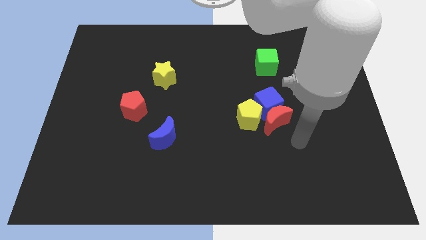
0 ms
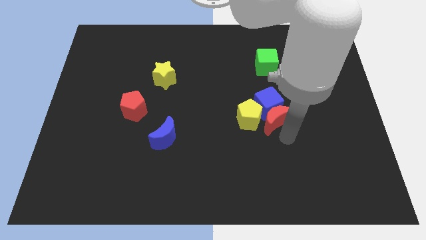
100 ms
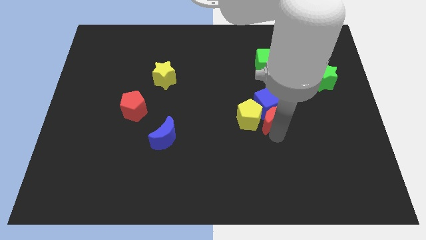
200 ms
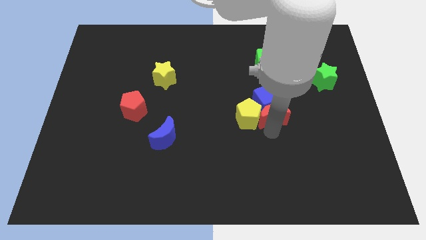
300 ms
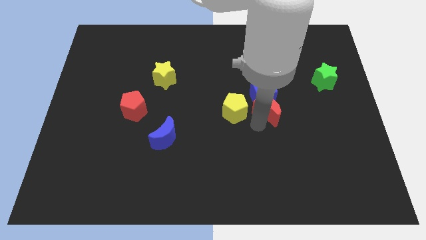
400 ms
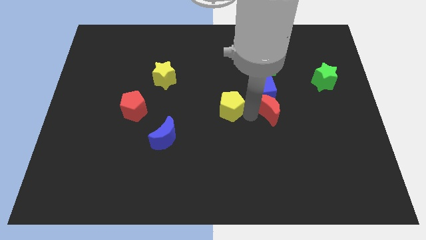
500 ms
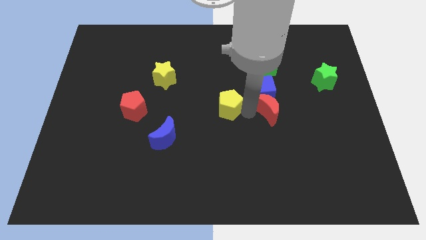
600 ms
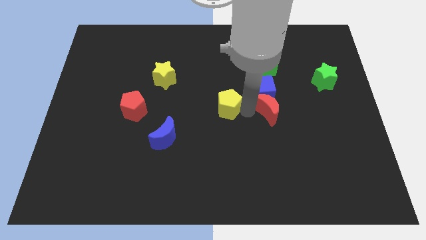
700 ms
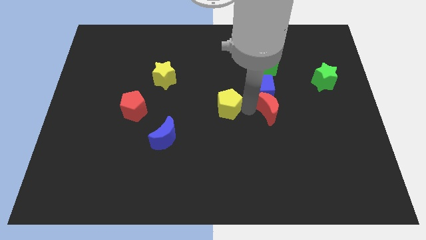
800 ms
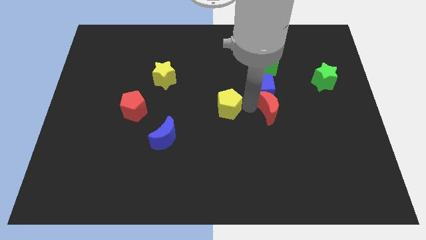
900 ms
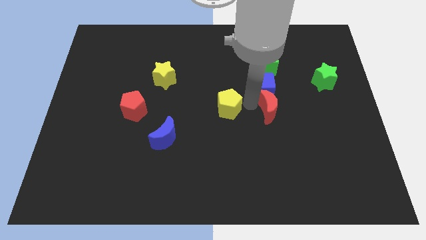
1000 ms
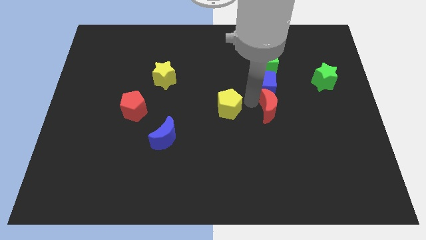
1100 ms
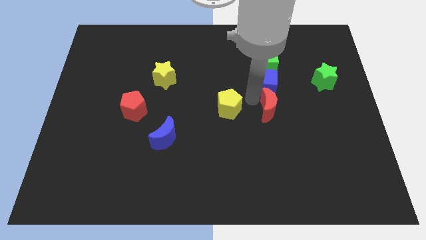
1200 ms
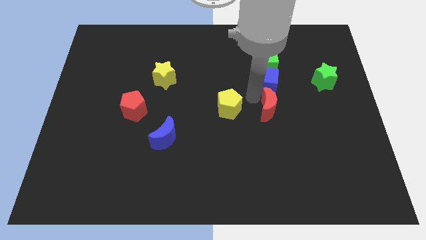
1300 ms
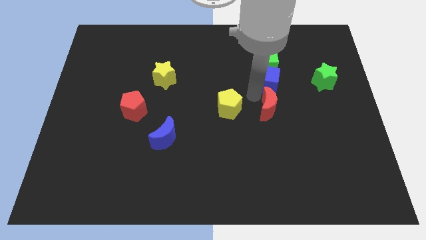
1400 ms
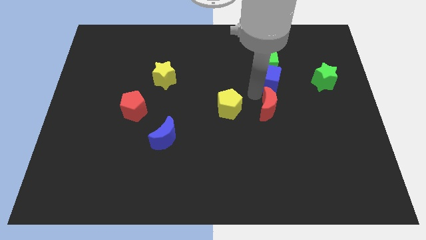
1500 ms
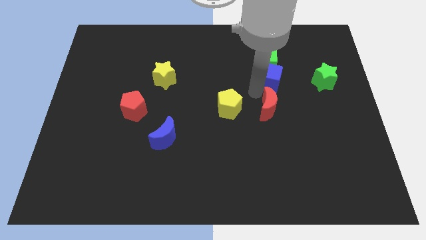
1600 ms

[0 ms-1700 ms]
pull the blue cube apart from the red moon and yellow pentagon

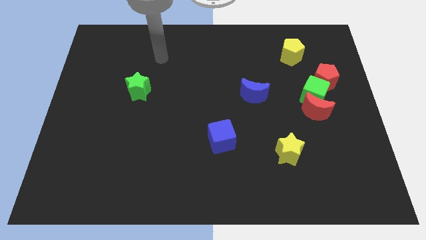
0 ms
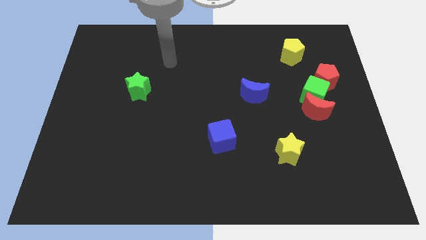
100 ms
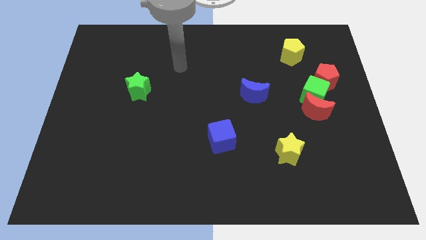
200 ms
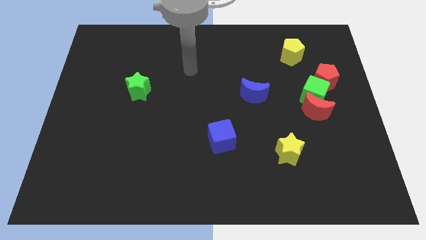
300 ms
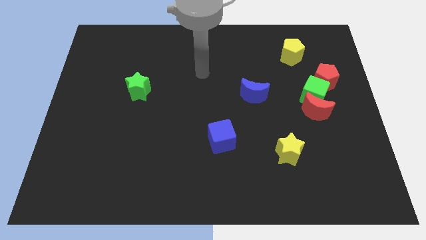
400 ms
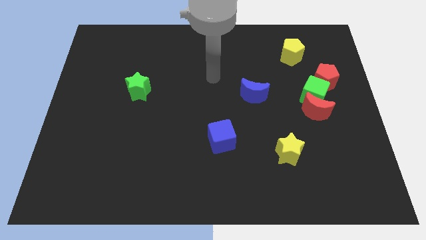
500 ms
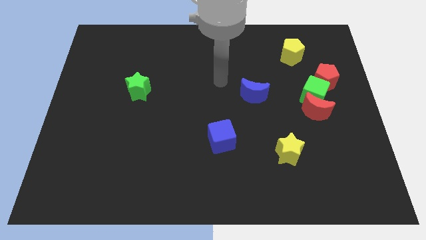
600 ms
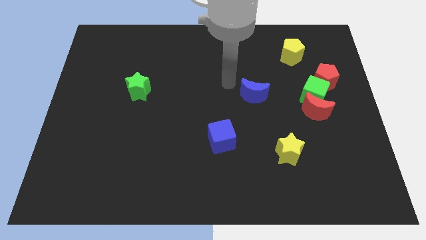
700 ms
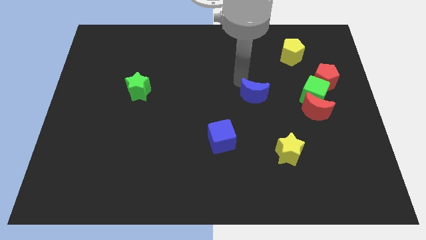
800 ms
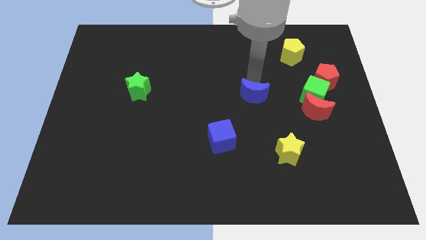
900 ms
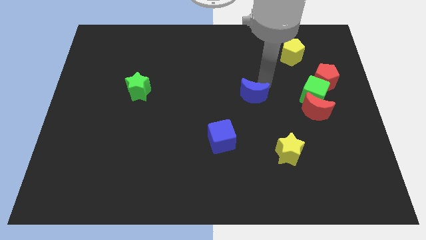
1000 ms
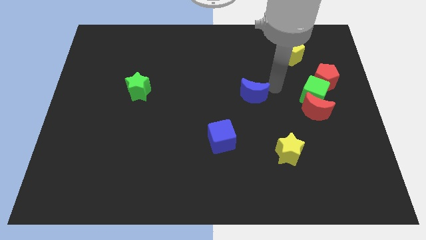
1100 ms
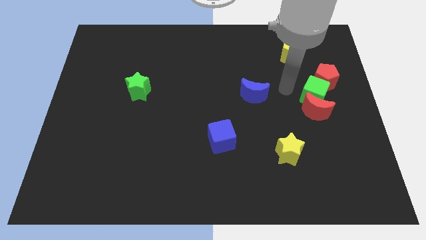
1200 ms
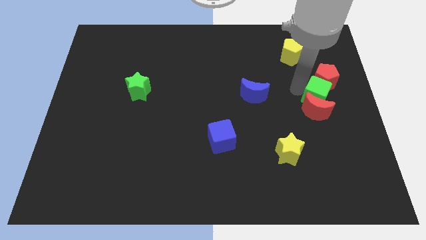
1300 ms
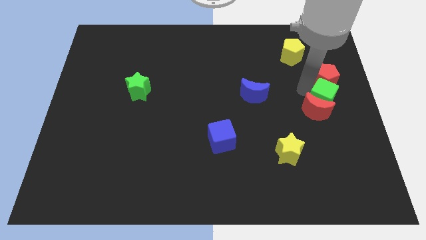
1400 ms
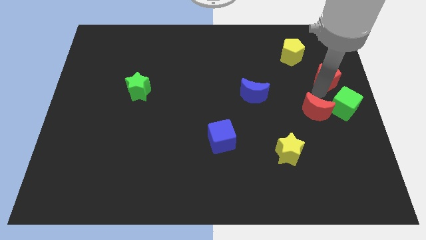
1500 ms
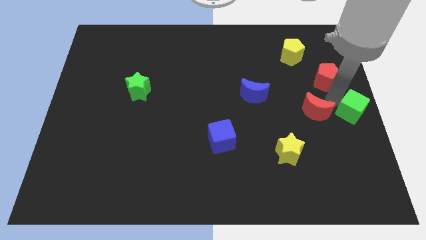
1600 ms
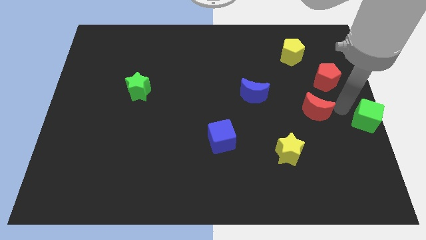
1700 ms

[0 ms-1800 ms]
pull the red moon apart from the green cube

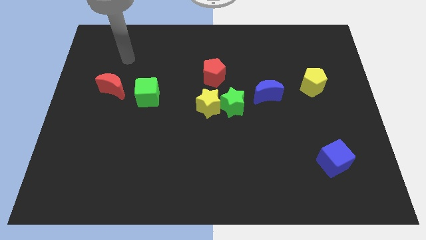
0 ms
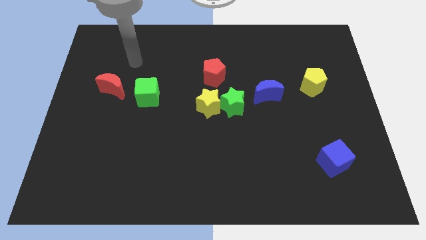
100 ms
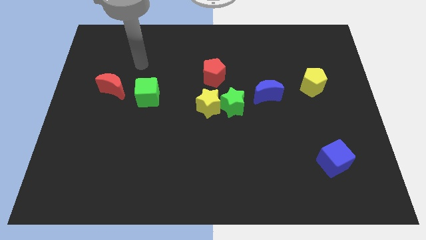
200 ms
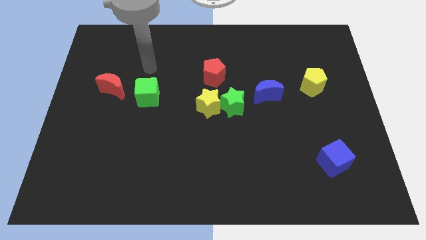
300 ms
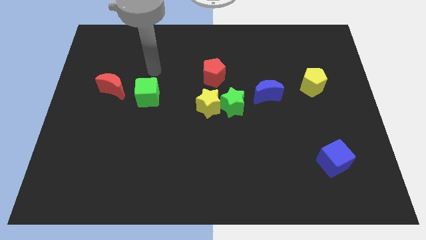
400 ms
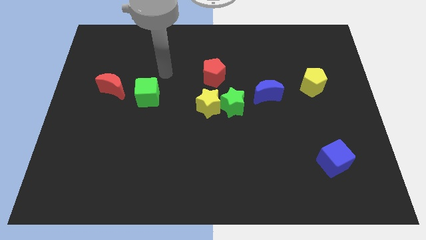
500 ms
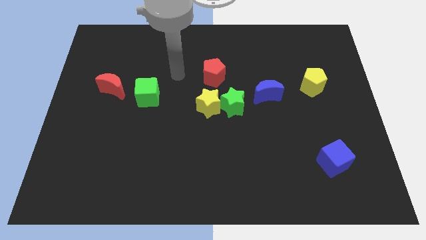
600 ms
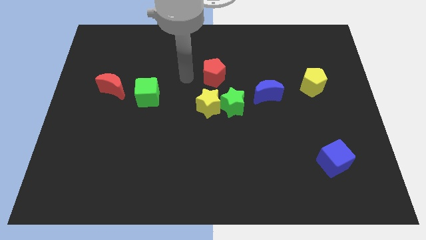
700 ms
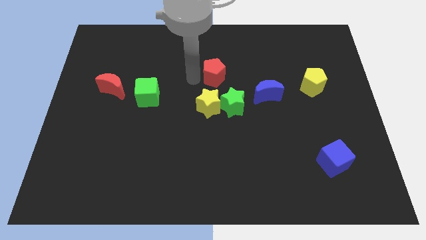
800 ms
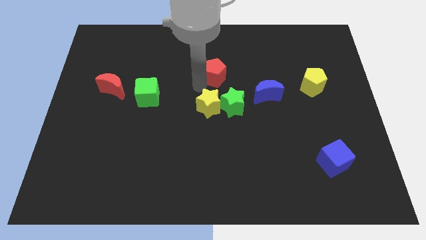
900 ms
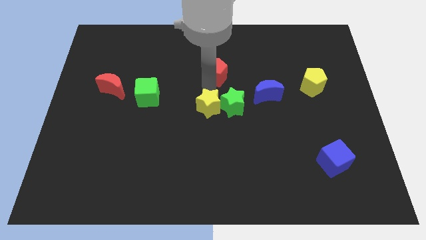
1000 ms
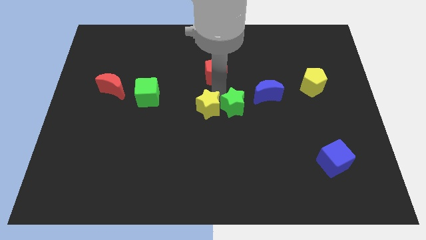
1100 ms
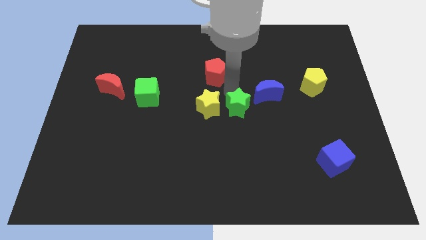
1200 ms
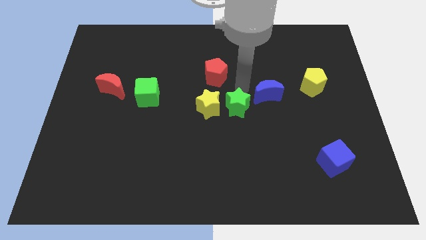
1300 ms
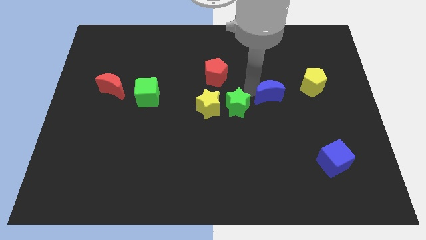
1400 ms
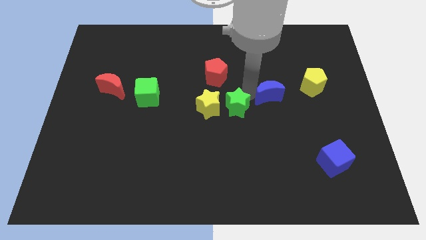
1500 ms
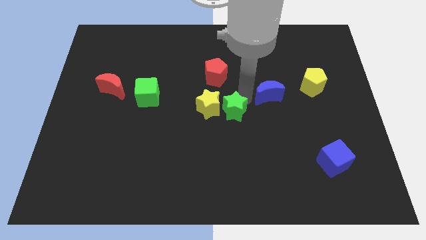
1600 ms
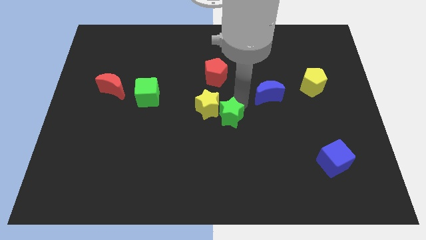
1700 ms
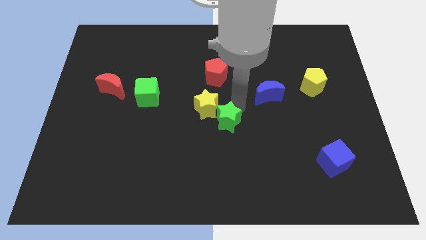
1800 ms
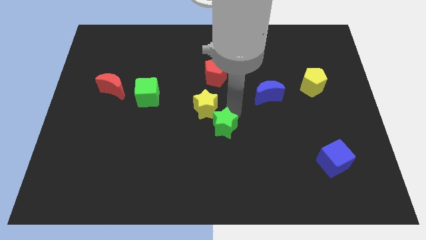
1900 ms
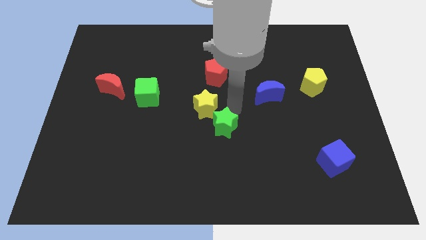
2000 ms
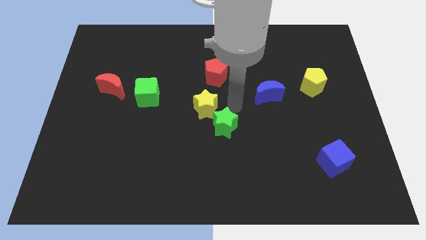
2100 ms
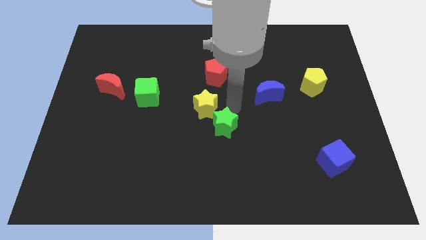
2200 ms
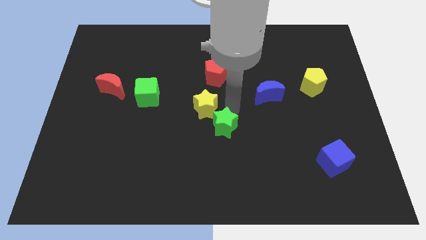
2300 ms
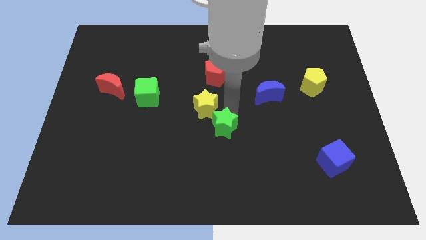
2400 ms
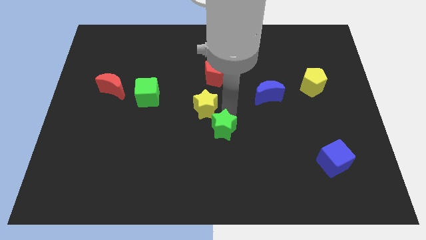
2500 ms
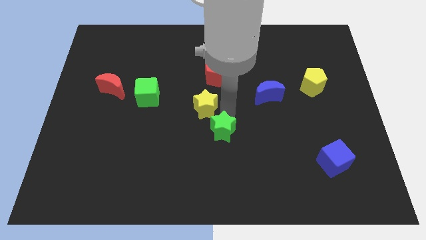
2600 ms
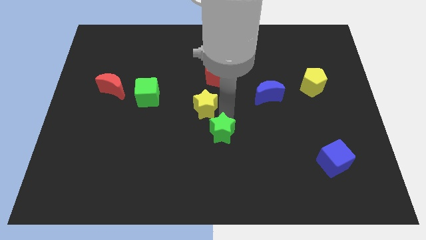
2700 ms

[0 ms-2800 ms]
move the green star away from the yellow star and blue moon

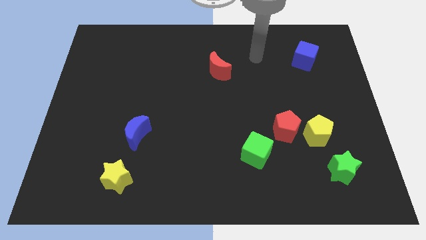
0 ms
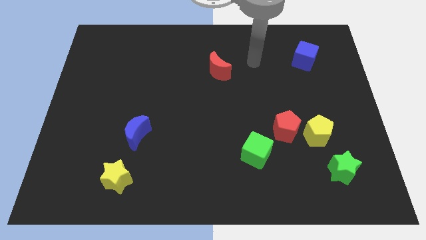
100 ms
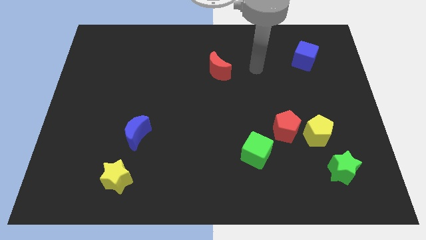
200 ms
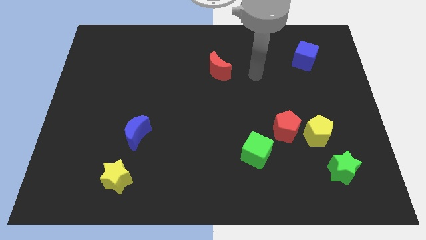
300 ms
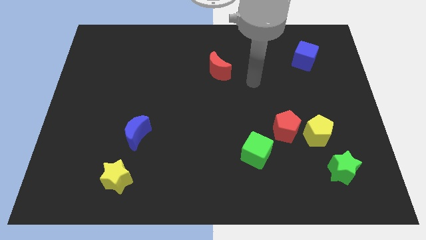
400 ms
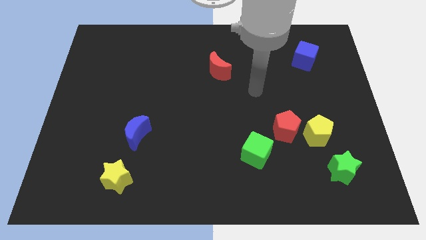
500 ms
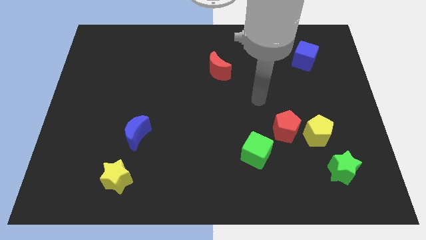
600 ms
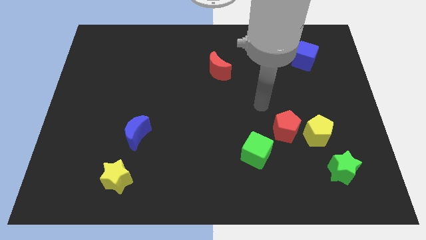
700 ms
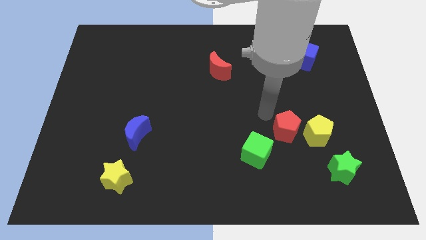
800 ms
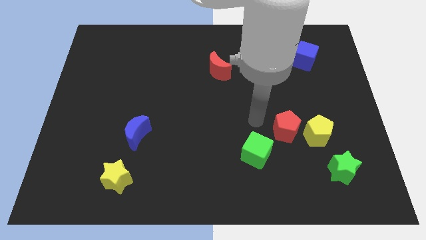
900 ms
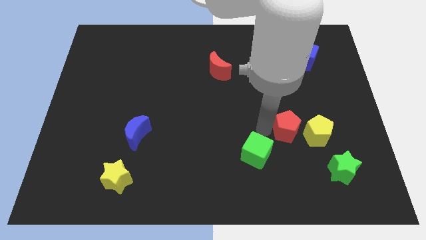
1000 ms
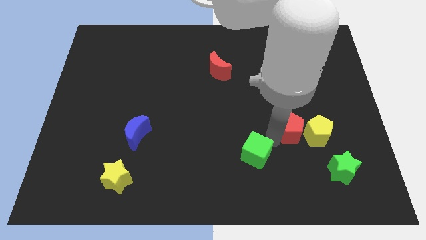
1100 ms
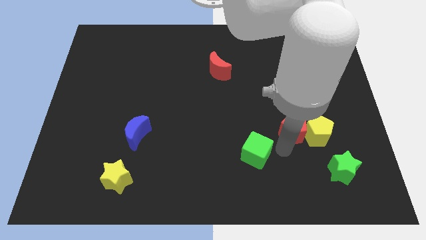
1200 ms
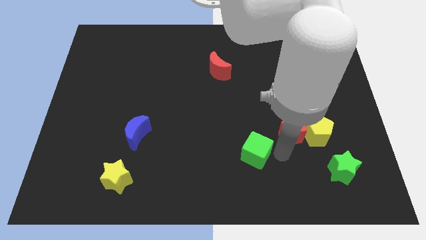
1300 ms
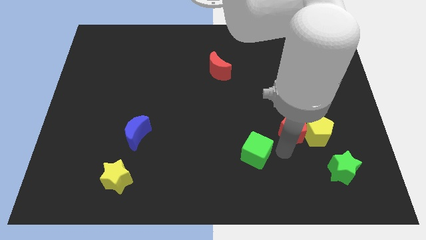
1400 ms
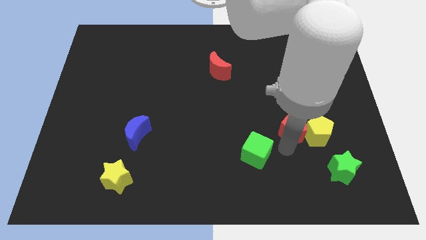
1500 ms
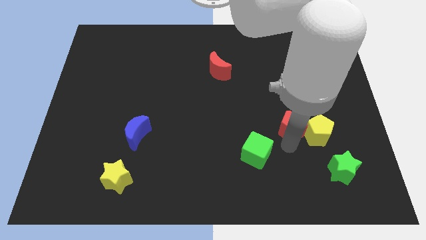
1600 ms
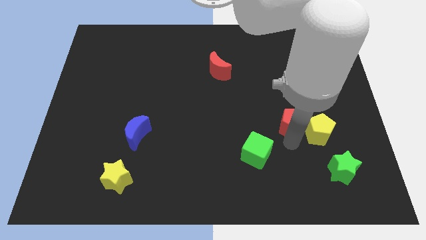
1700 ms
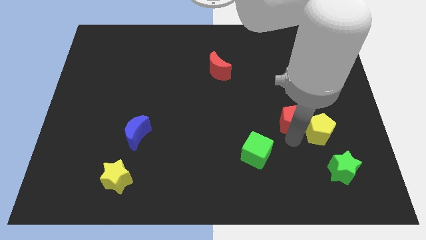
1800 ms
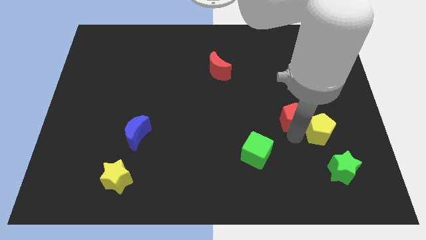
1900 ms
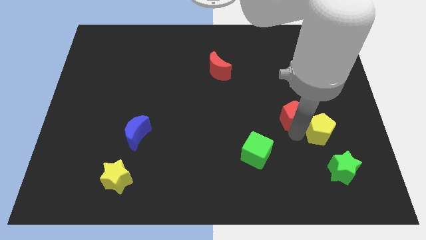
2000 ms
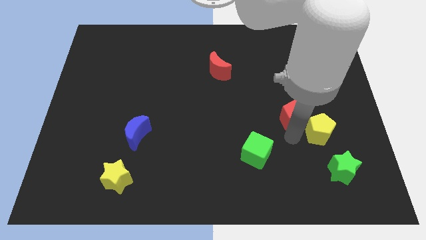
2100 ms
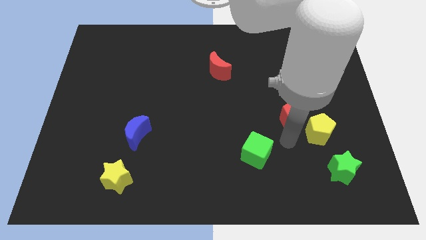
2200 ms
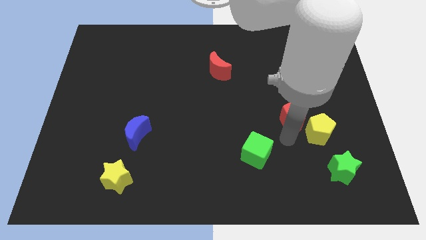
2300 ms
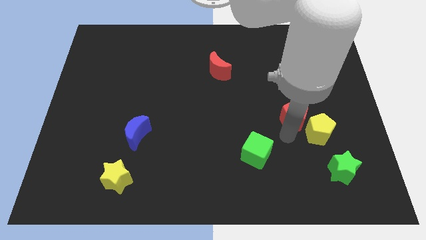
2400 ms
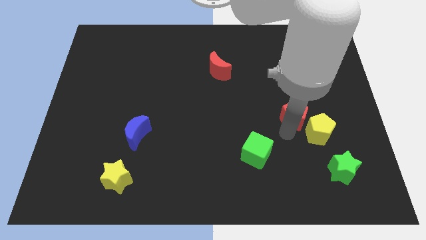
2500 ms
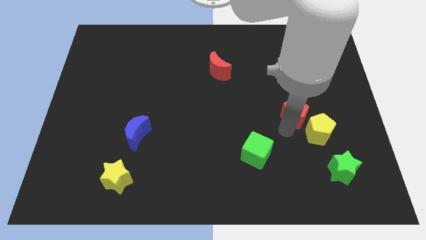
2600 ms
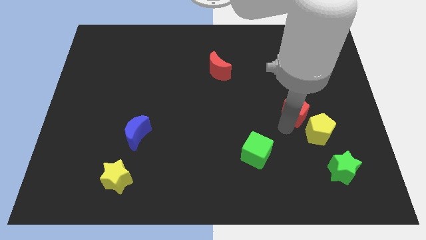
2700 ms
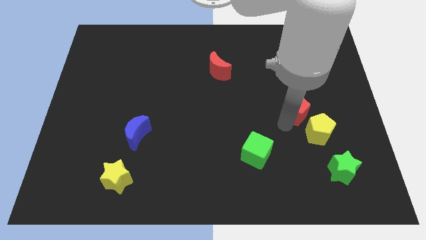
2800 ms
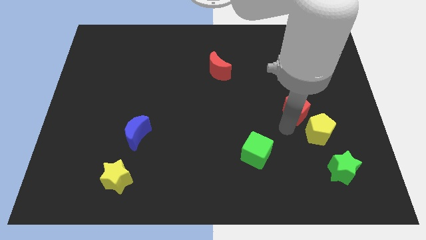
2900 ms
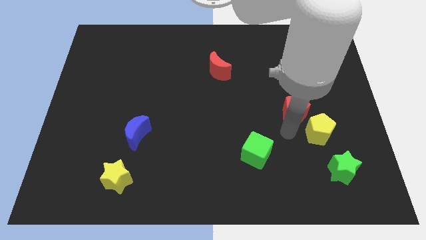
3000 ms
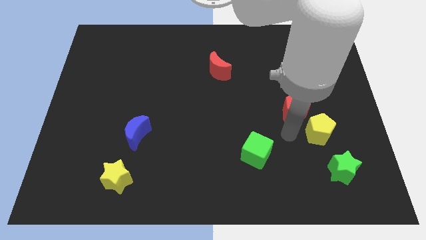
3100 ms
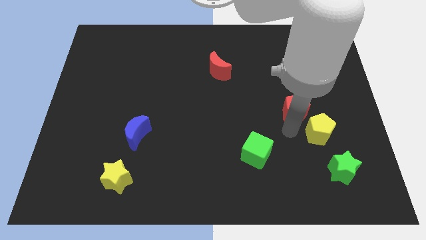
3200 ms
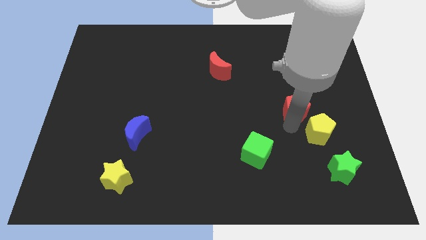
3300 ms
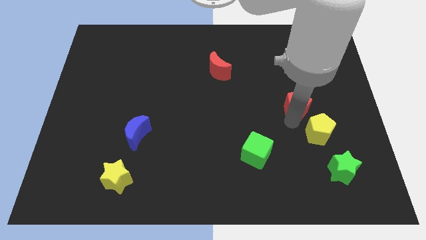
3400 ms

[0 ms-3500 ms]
pull the red pentagon apart from the yellow pentagon and green cube
